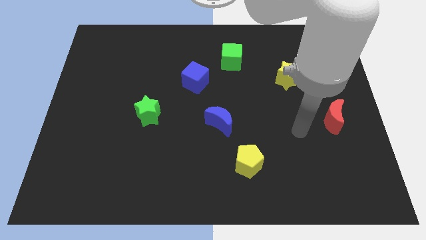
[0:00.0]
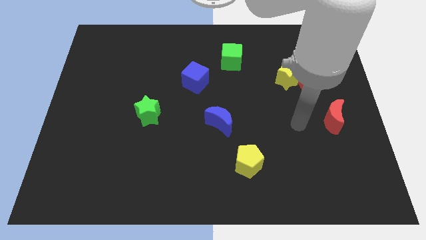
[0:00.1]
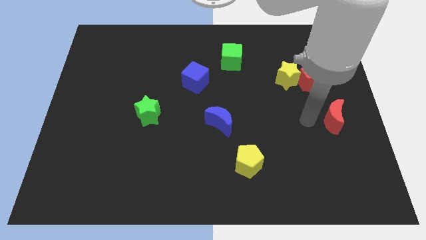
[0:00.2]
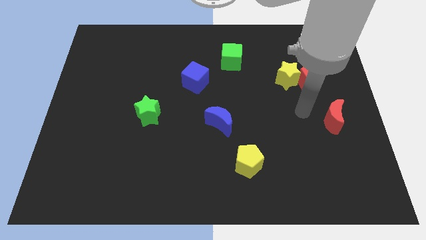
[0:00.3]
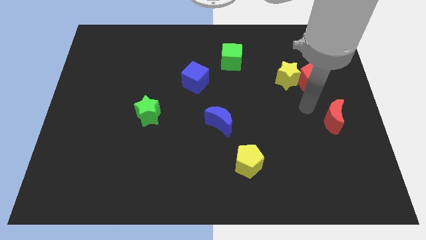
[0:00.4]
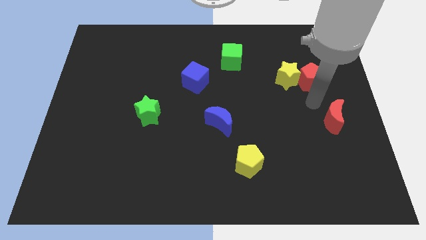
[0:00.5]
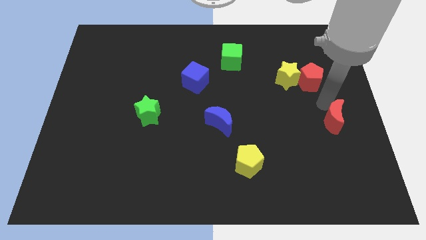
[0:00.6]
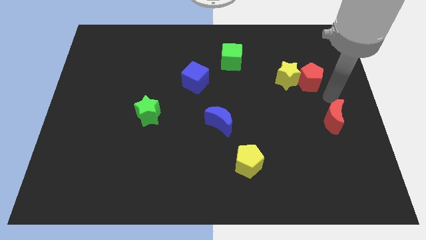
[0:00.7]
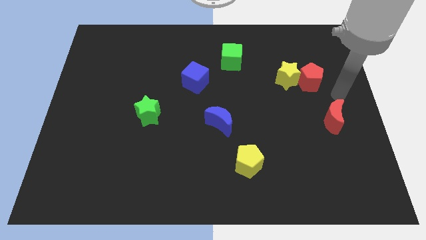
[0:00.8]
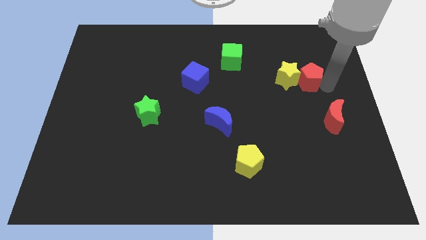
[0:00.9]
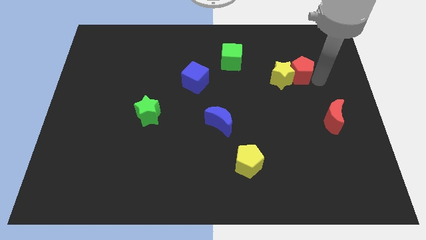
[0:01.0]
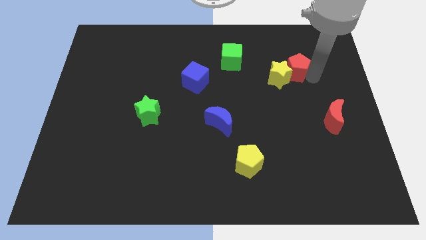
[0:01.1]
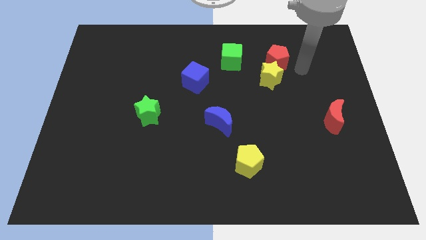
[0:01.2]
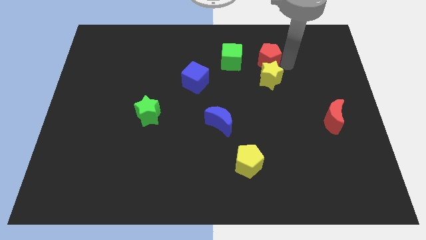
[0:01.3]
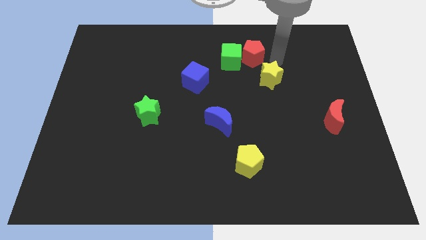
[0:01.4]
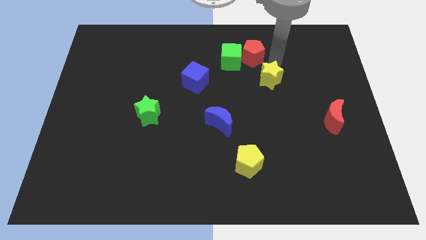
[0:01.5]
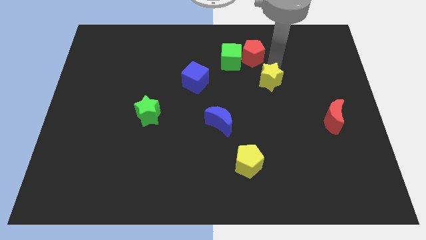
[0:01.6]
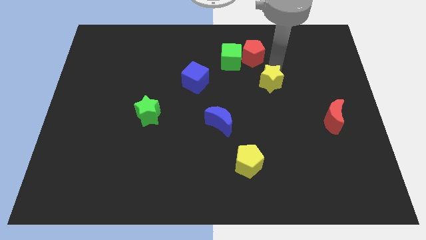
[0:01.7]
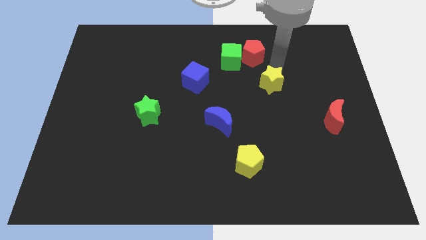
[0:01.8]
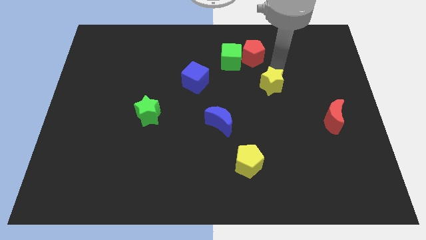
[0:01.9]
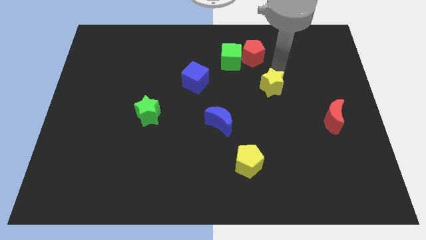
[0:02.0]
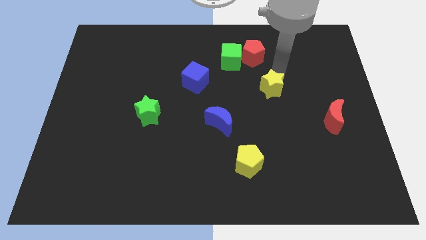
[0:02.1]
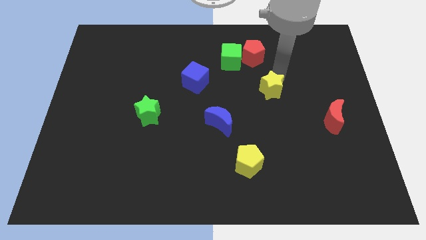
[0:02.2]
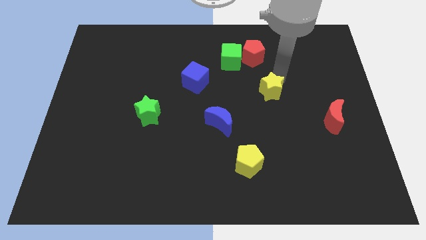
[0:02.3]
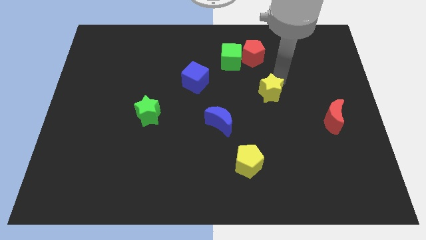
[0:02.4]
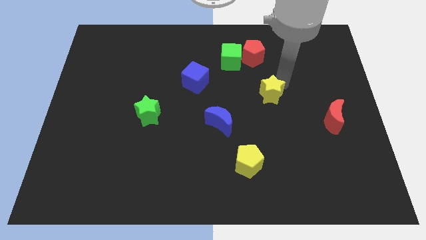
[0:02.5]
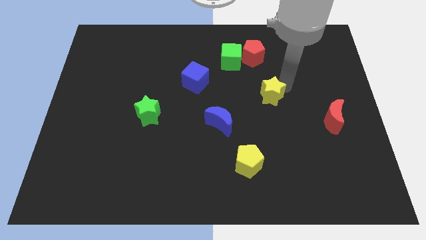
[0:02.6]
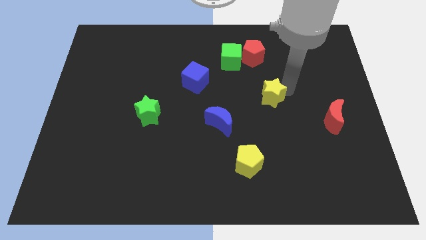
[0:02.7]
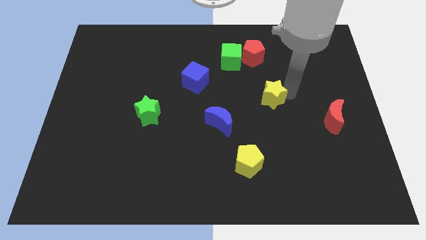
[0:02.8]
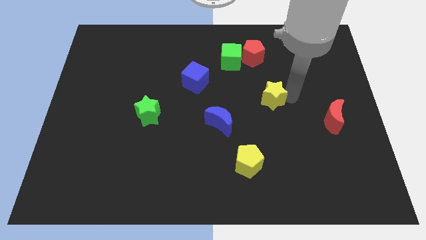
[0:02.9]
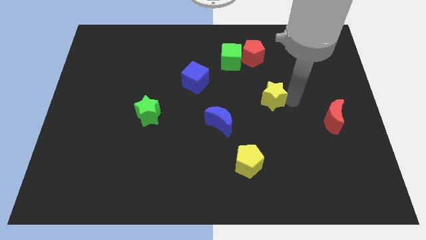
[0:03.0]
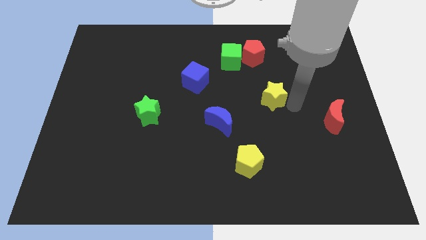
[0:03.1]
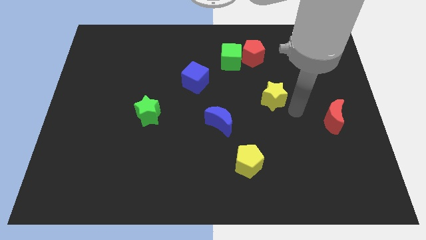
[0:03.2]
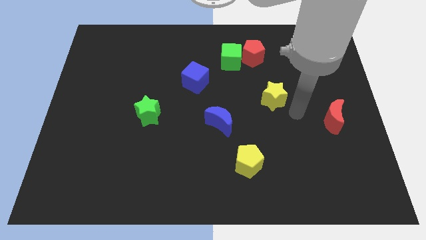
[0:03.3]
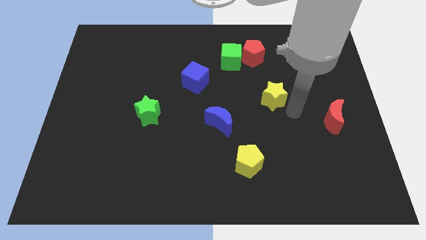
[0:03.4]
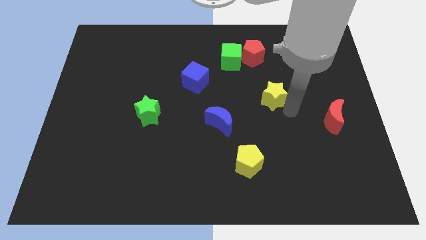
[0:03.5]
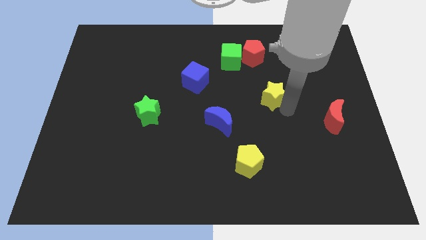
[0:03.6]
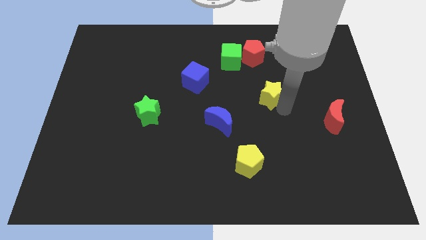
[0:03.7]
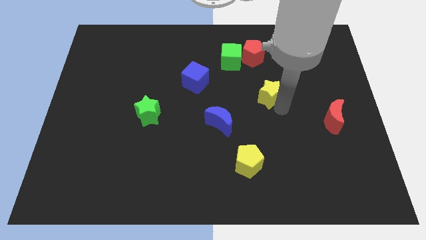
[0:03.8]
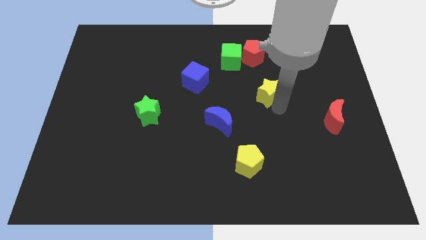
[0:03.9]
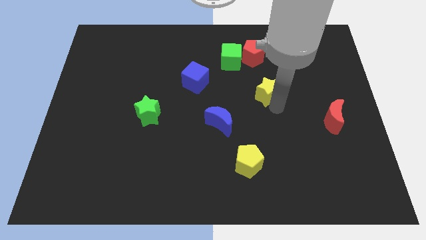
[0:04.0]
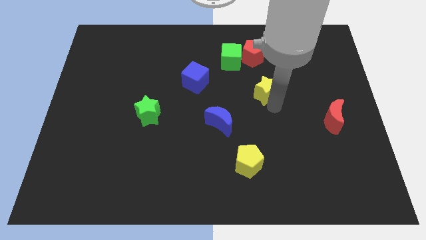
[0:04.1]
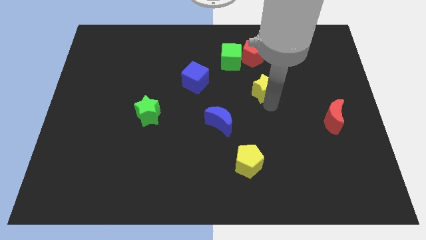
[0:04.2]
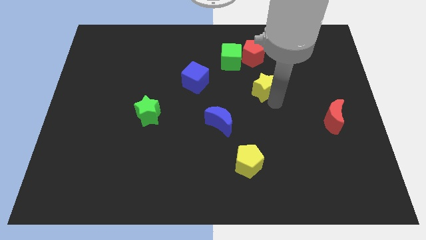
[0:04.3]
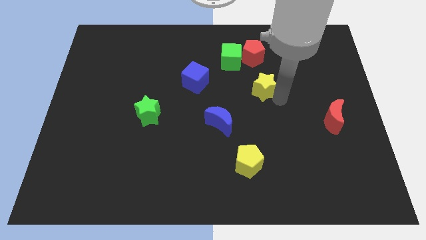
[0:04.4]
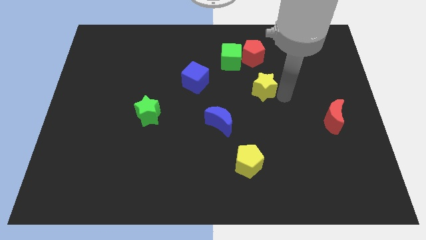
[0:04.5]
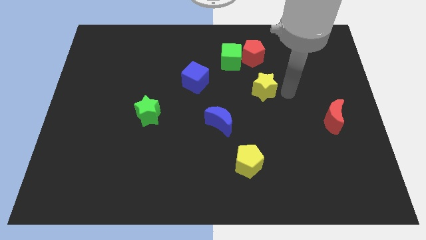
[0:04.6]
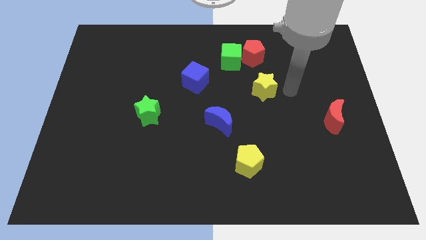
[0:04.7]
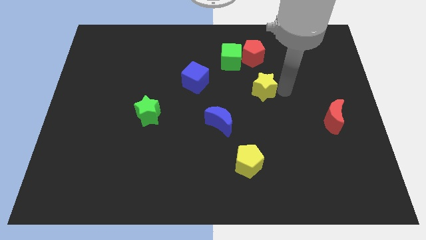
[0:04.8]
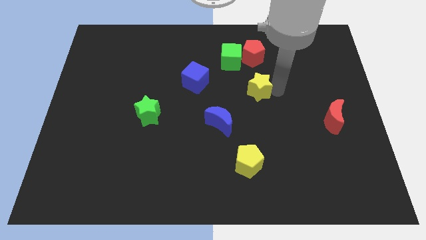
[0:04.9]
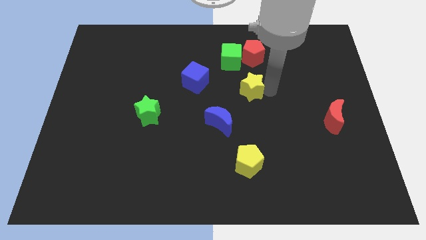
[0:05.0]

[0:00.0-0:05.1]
slide the yellow star to the bottom side of the green cube

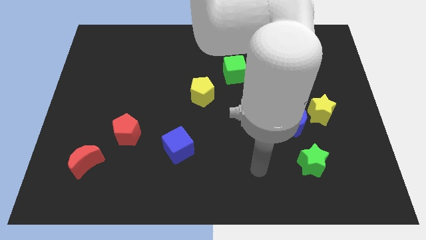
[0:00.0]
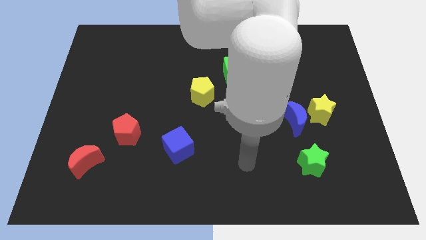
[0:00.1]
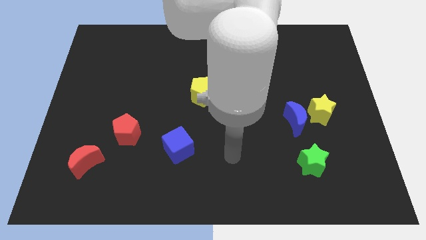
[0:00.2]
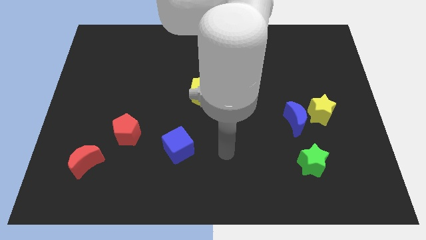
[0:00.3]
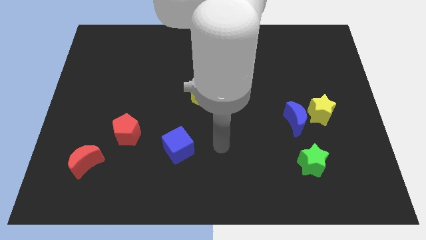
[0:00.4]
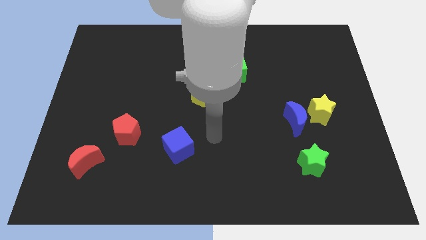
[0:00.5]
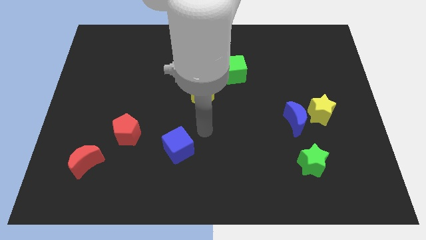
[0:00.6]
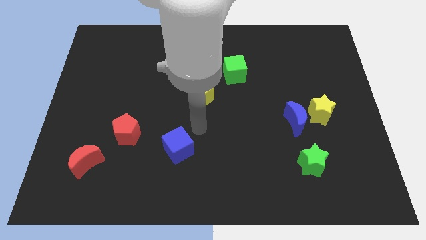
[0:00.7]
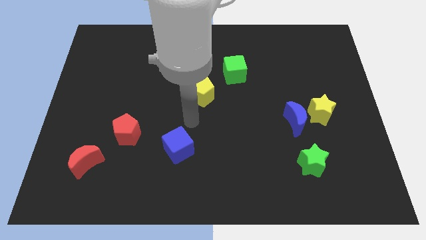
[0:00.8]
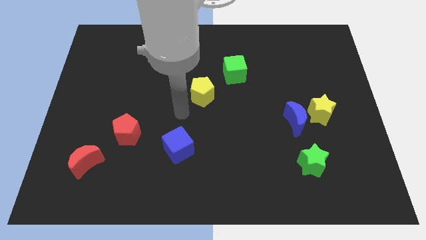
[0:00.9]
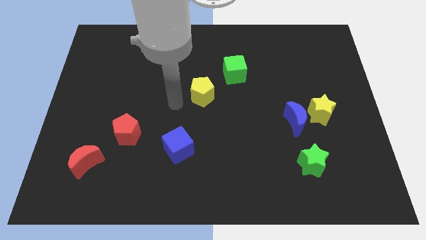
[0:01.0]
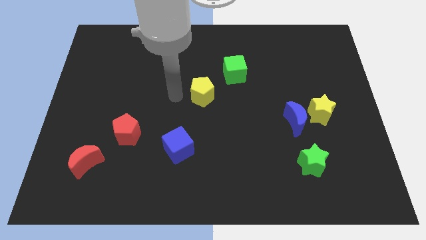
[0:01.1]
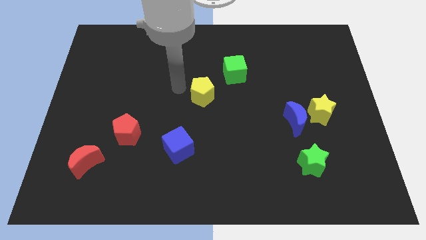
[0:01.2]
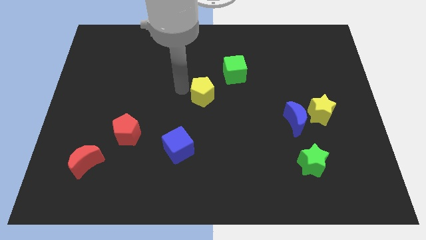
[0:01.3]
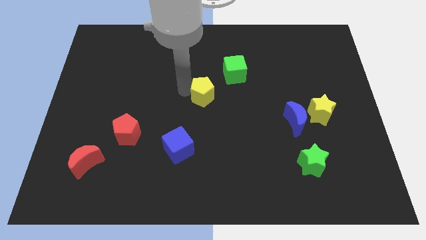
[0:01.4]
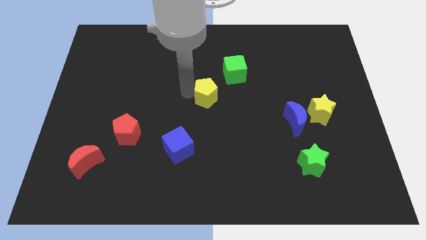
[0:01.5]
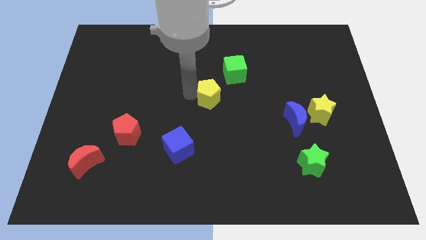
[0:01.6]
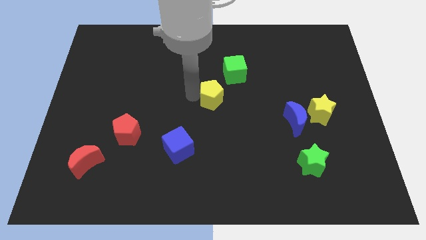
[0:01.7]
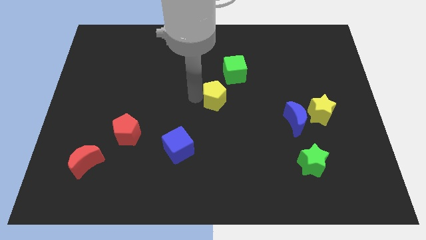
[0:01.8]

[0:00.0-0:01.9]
put the yellow pentagon to the bottom of the green cube
